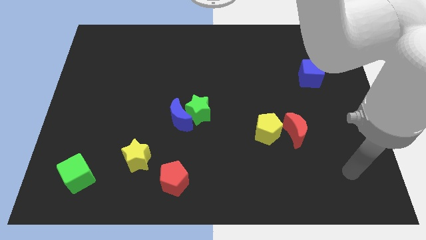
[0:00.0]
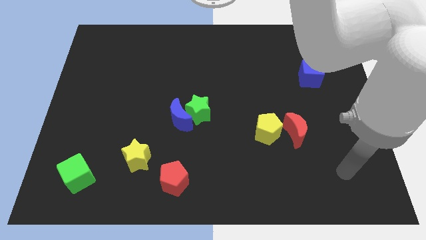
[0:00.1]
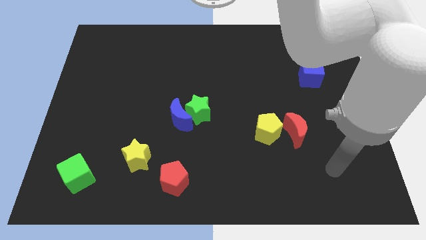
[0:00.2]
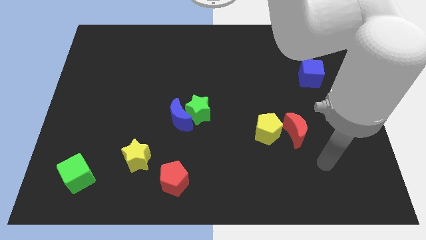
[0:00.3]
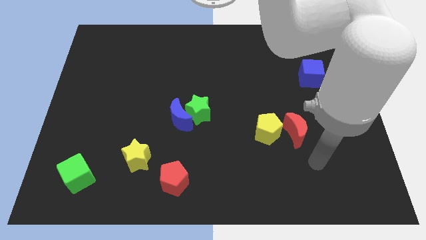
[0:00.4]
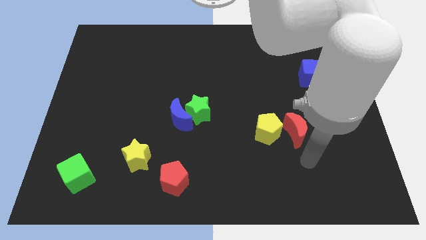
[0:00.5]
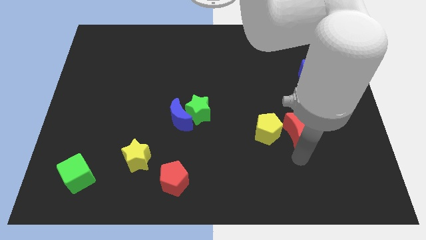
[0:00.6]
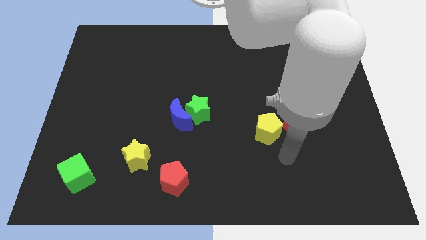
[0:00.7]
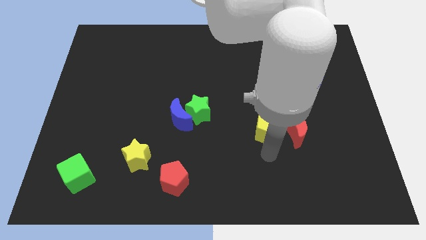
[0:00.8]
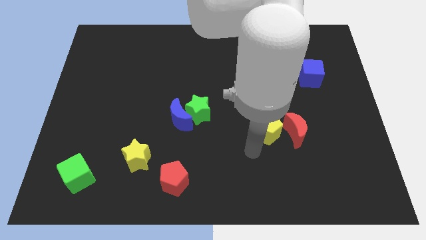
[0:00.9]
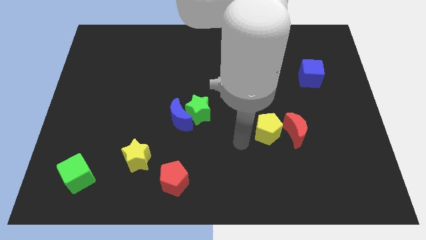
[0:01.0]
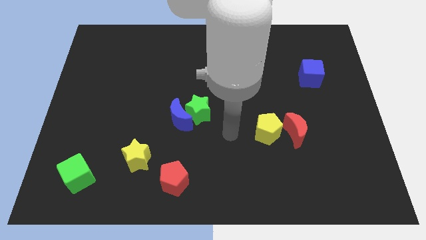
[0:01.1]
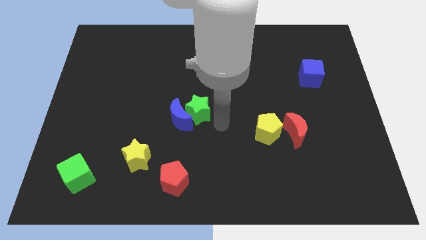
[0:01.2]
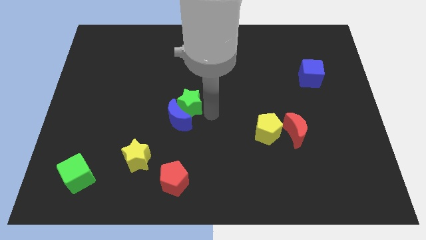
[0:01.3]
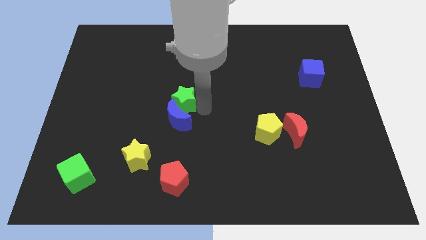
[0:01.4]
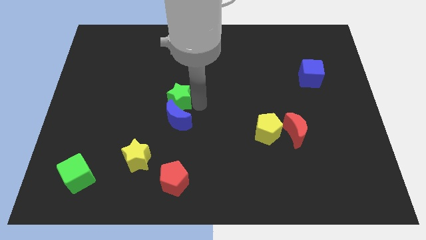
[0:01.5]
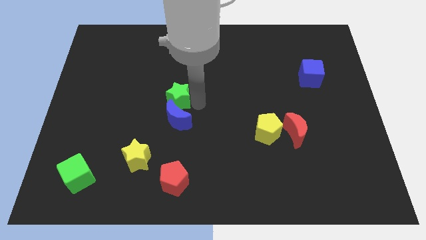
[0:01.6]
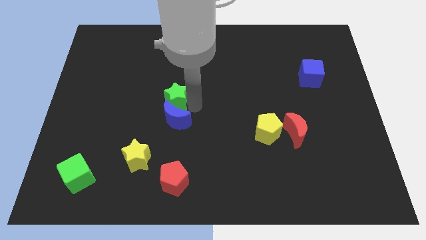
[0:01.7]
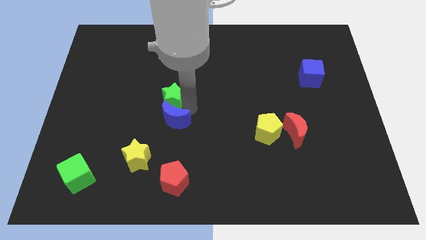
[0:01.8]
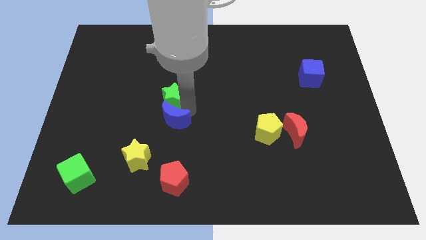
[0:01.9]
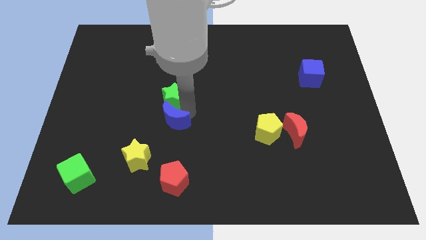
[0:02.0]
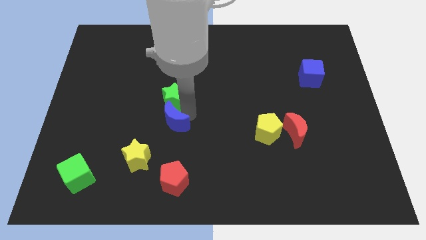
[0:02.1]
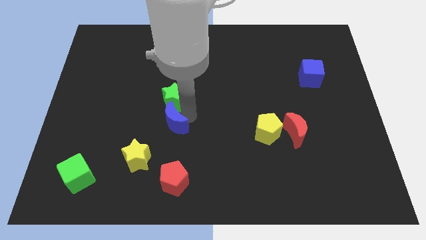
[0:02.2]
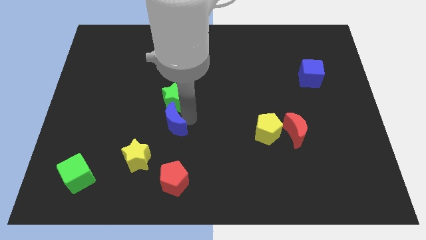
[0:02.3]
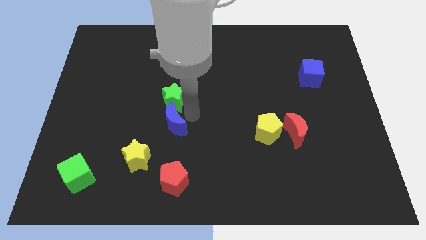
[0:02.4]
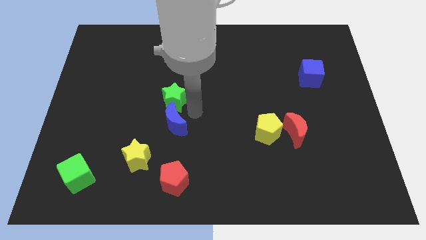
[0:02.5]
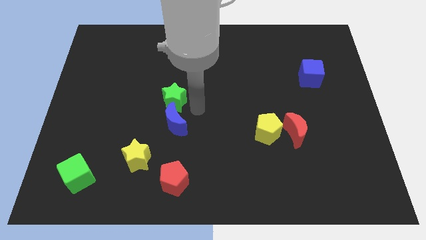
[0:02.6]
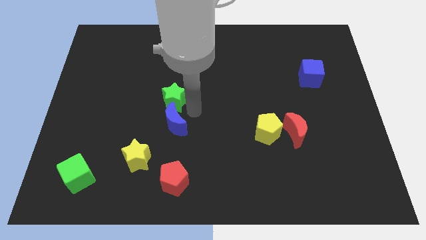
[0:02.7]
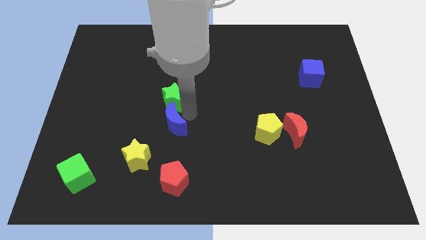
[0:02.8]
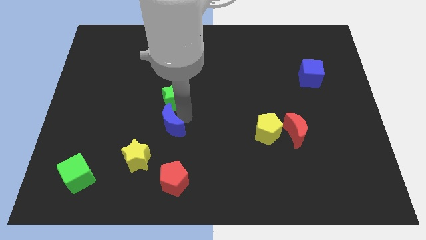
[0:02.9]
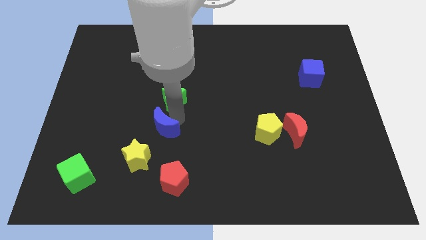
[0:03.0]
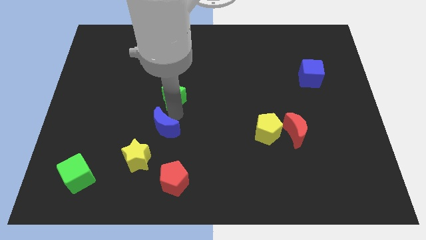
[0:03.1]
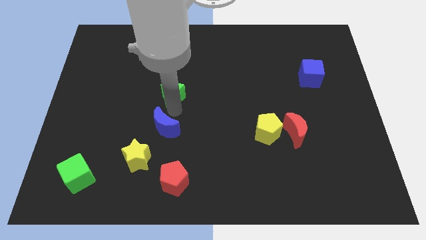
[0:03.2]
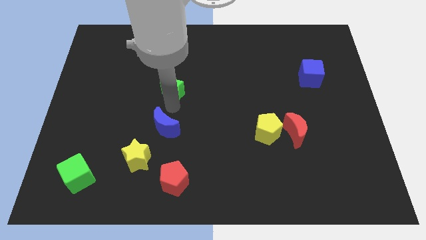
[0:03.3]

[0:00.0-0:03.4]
pull the blue moon apart from the green star

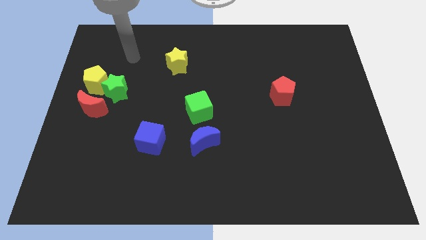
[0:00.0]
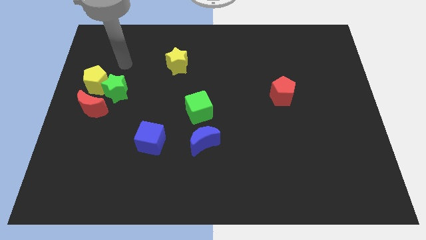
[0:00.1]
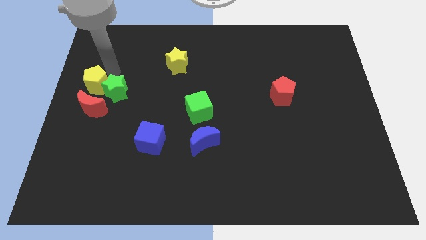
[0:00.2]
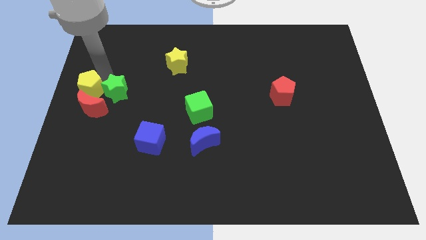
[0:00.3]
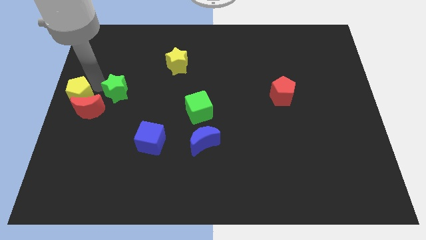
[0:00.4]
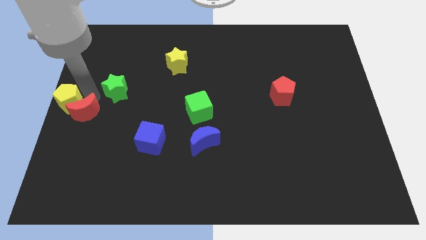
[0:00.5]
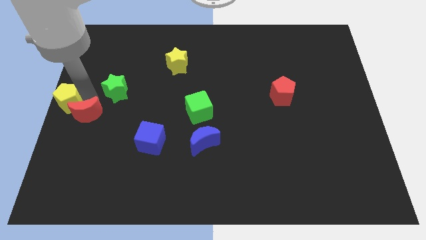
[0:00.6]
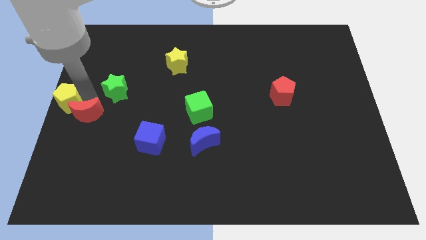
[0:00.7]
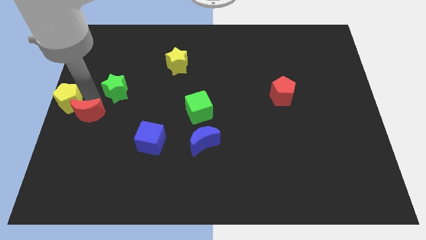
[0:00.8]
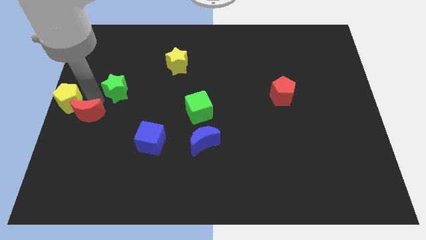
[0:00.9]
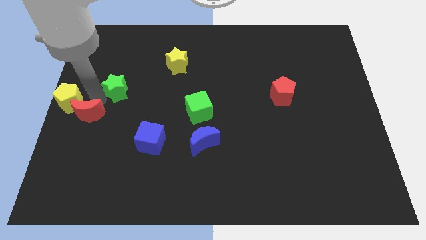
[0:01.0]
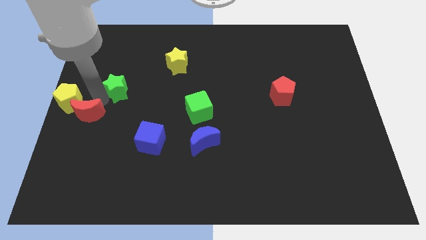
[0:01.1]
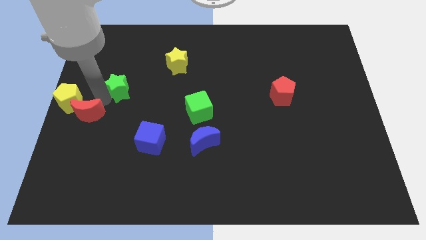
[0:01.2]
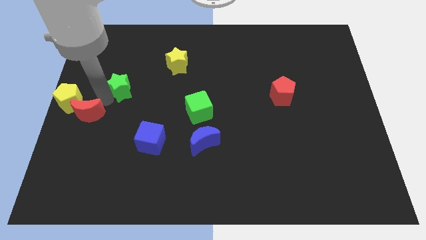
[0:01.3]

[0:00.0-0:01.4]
separate the green star from the yellow pentagon and red moon

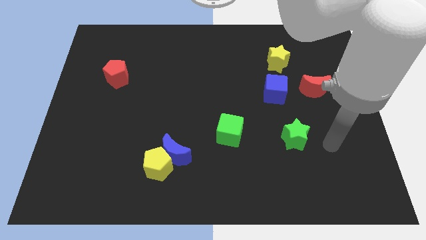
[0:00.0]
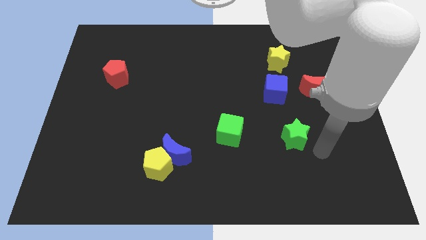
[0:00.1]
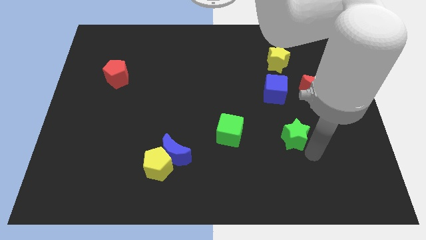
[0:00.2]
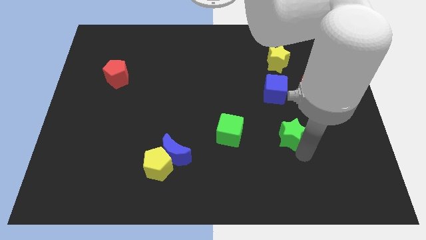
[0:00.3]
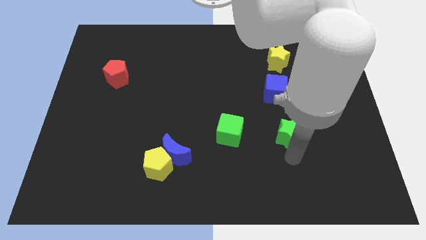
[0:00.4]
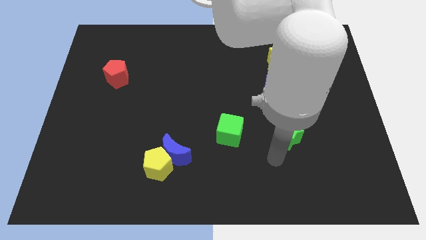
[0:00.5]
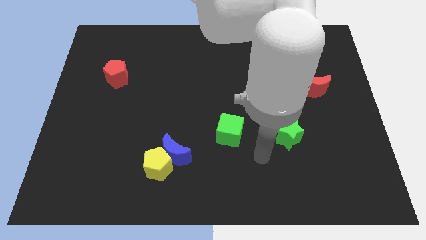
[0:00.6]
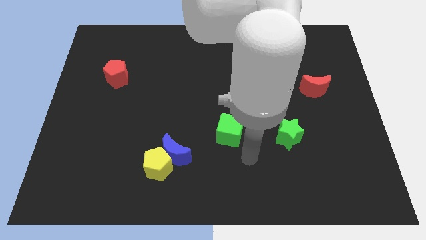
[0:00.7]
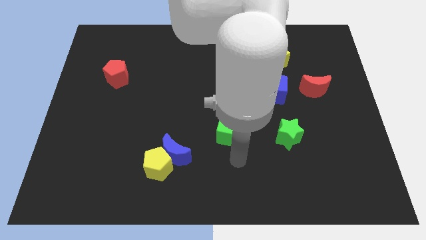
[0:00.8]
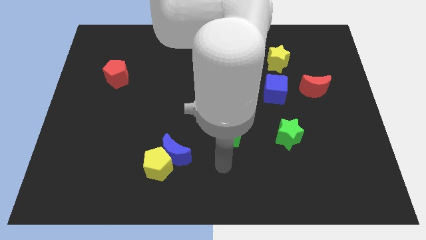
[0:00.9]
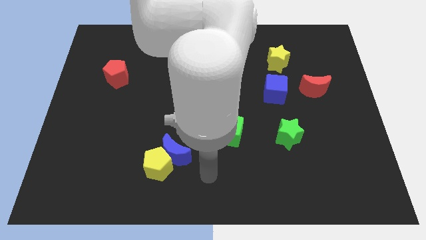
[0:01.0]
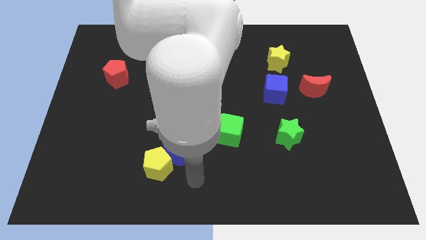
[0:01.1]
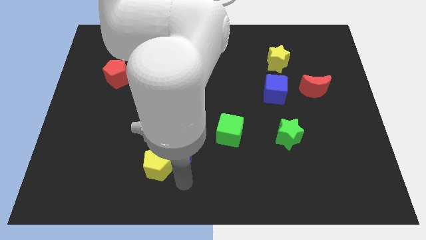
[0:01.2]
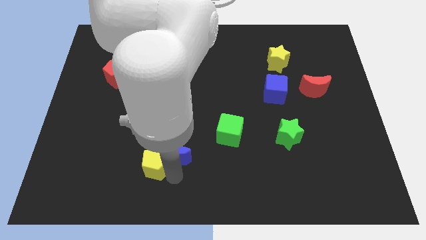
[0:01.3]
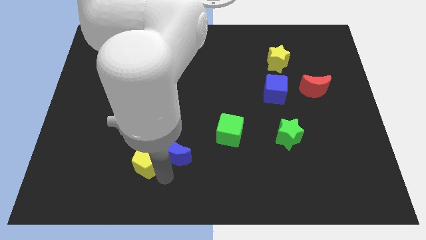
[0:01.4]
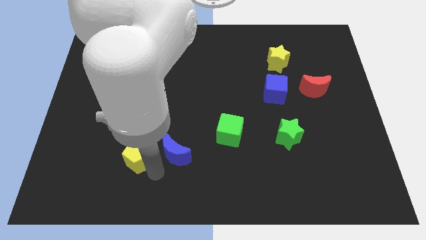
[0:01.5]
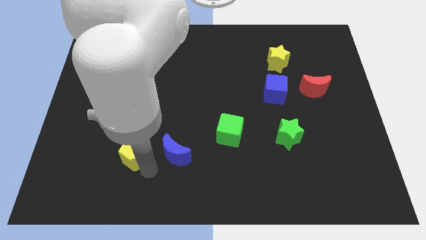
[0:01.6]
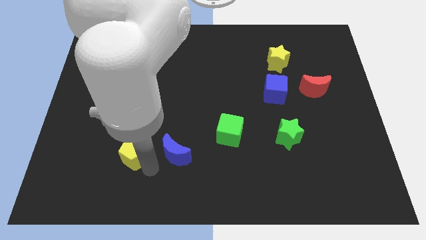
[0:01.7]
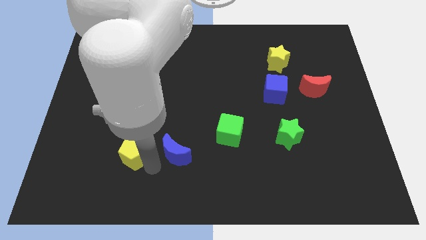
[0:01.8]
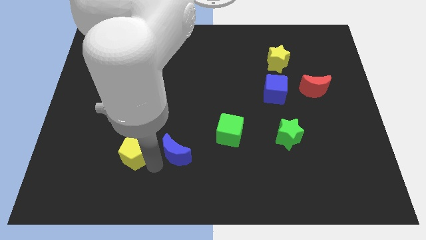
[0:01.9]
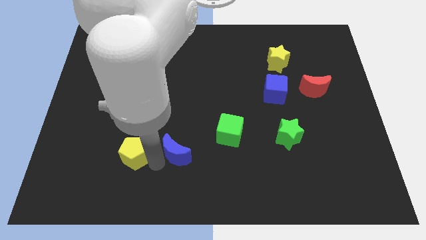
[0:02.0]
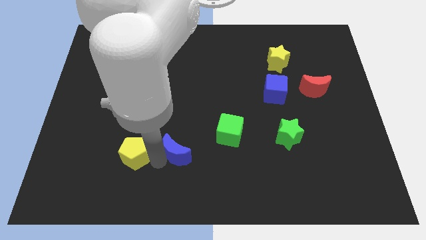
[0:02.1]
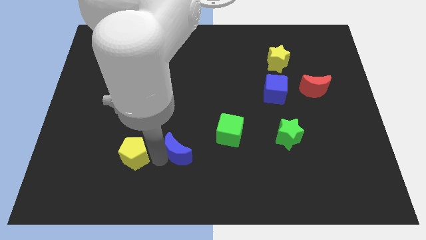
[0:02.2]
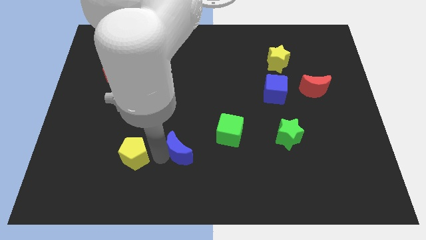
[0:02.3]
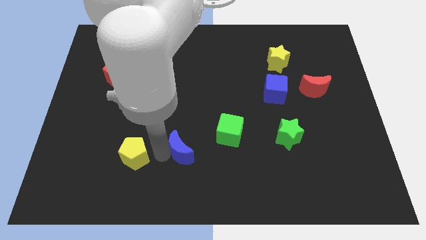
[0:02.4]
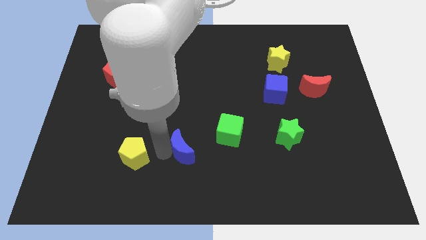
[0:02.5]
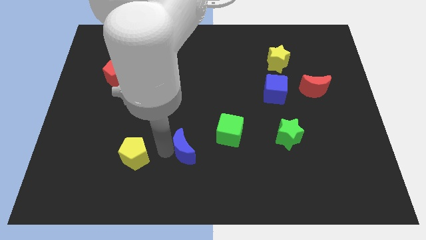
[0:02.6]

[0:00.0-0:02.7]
move the blue moon away from the yellow pentagon

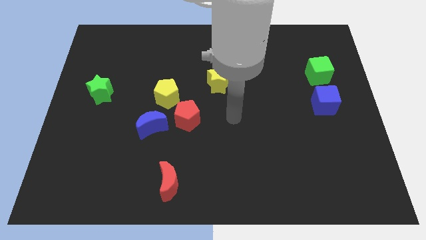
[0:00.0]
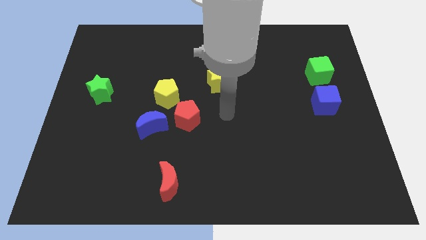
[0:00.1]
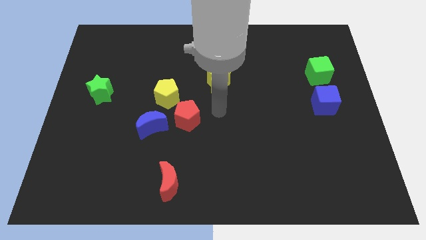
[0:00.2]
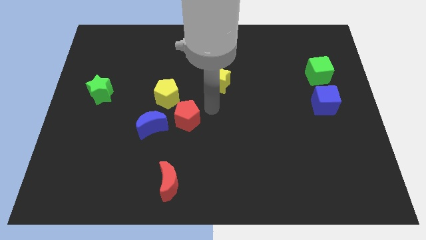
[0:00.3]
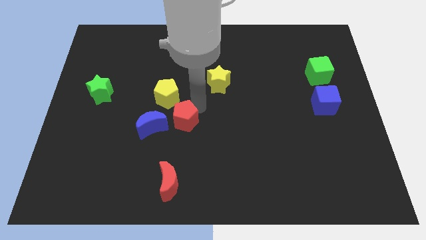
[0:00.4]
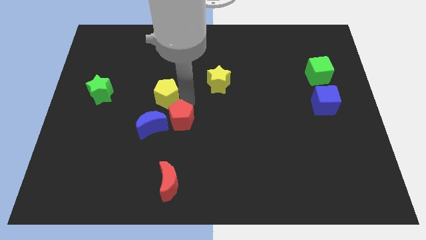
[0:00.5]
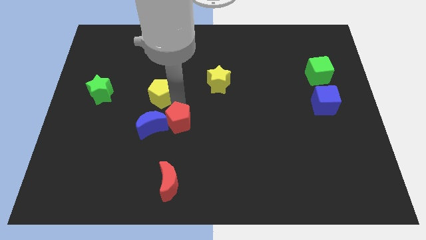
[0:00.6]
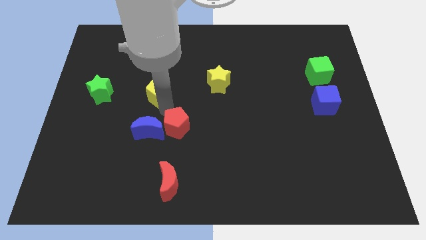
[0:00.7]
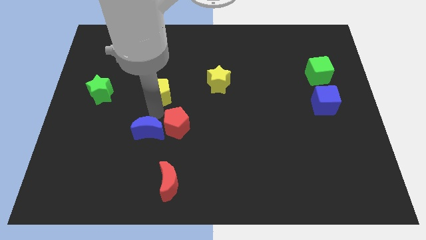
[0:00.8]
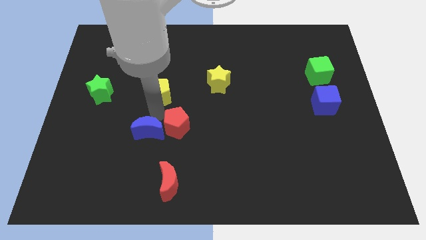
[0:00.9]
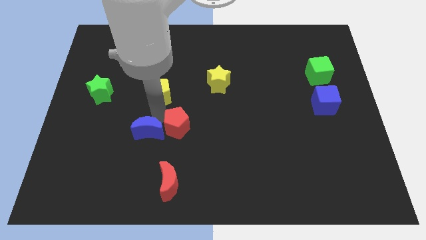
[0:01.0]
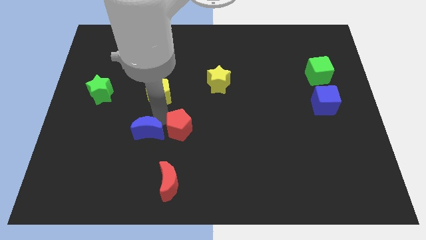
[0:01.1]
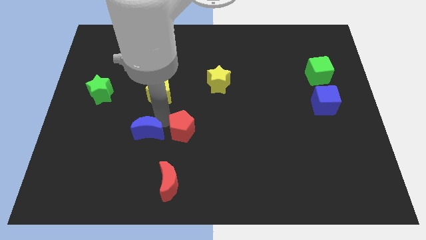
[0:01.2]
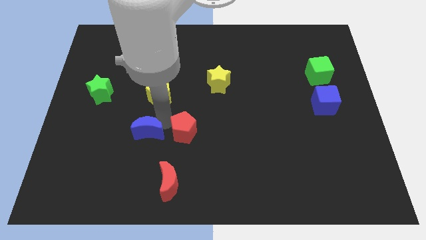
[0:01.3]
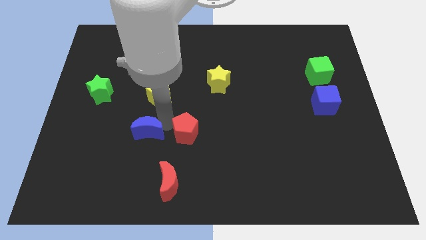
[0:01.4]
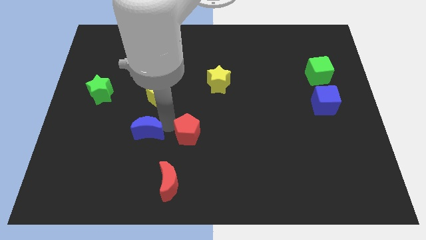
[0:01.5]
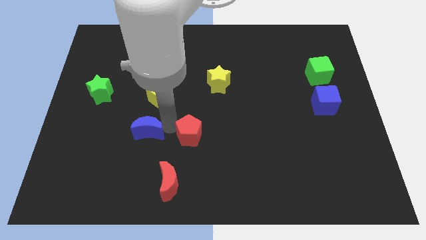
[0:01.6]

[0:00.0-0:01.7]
move the red pentagon away from the yellow pentagon and blue moon
